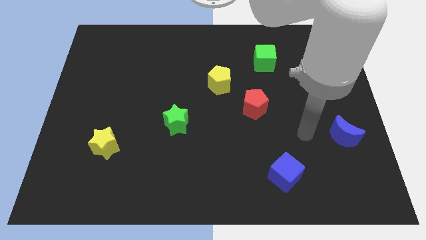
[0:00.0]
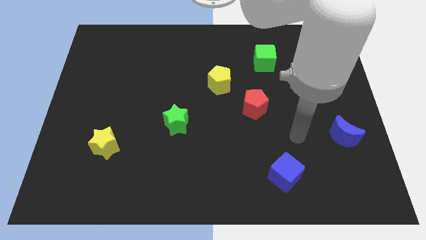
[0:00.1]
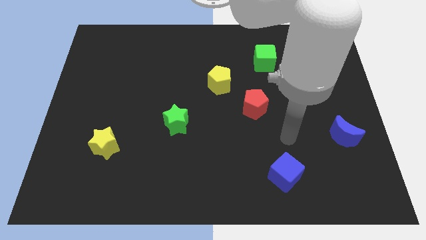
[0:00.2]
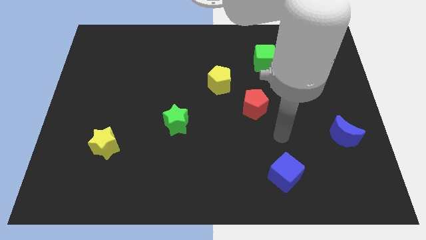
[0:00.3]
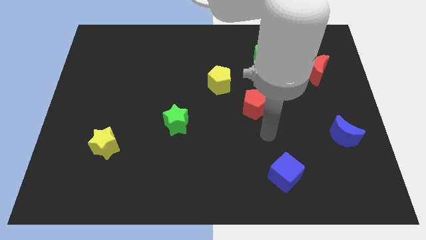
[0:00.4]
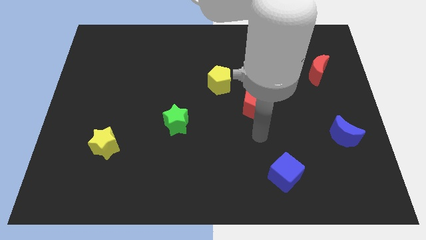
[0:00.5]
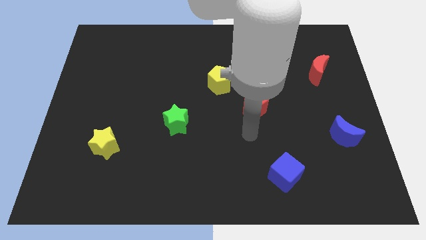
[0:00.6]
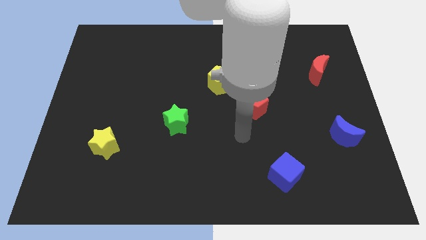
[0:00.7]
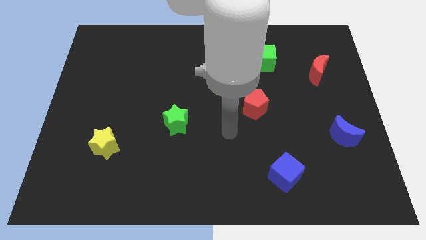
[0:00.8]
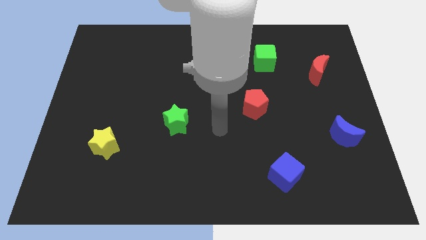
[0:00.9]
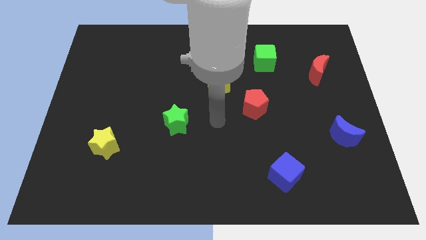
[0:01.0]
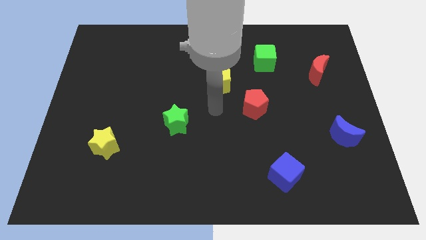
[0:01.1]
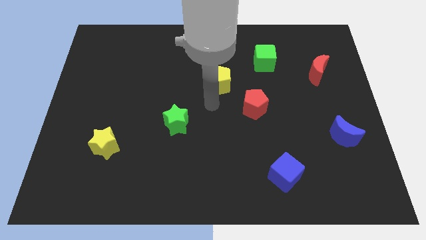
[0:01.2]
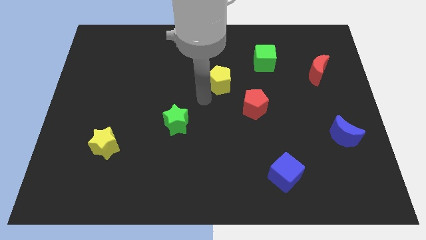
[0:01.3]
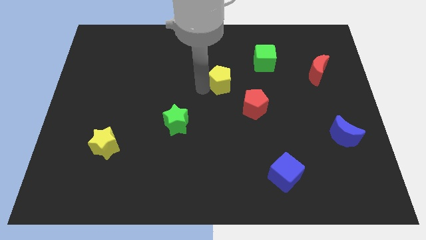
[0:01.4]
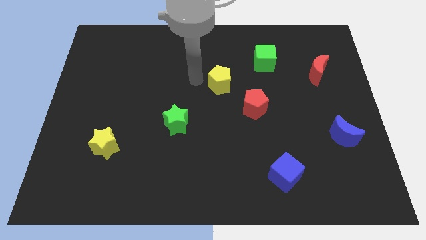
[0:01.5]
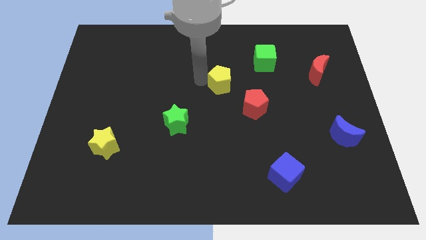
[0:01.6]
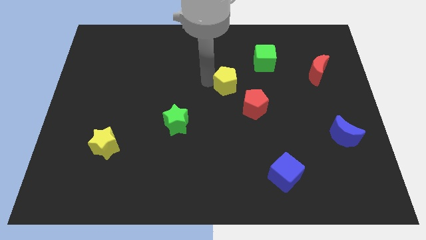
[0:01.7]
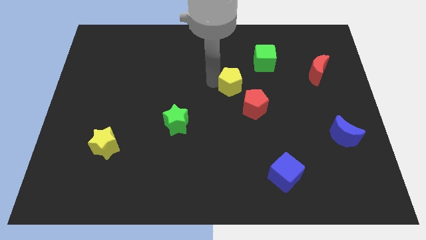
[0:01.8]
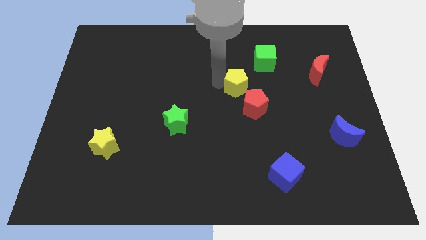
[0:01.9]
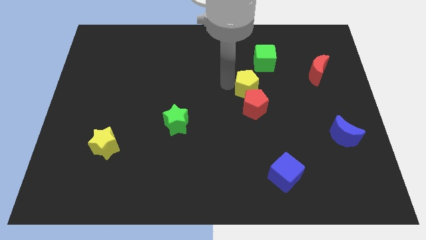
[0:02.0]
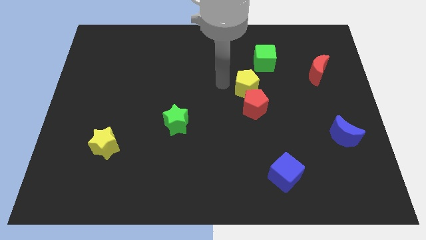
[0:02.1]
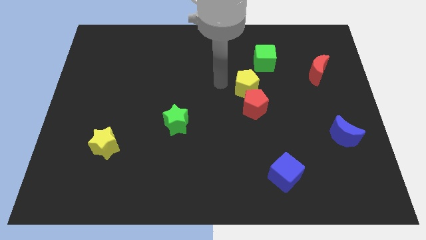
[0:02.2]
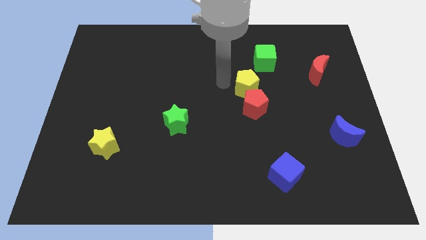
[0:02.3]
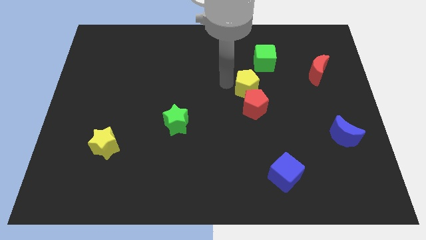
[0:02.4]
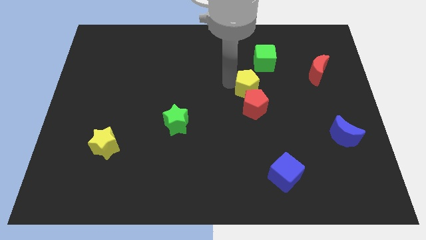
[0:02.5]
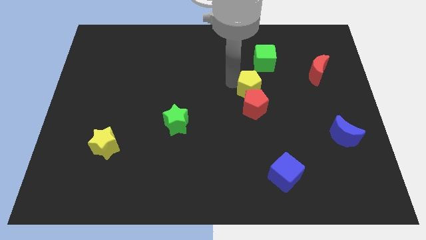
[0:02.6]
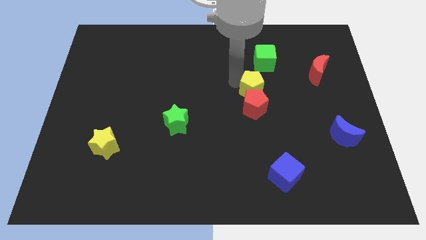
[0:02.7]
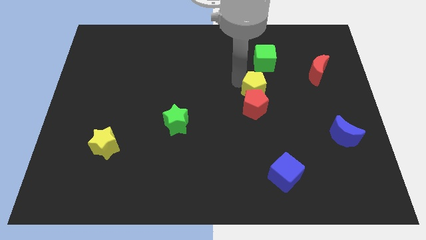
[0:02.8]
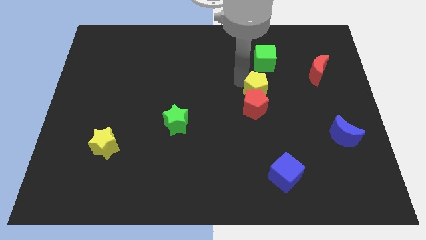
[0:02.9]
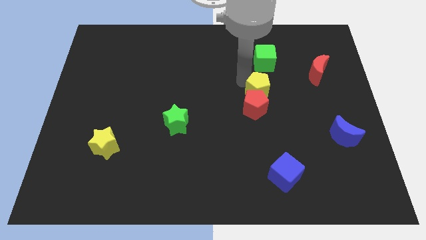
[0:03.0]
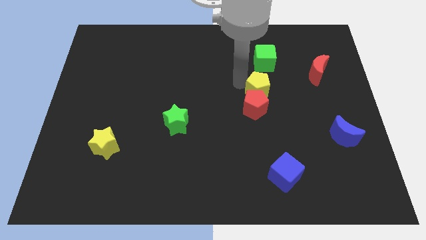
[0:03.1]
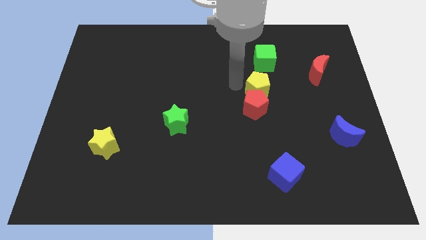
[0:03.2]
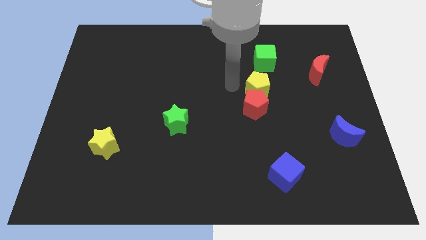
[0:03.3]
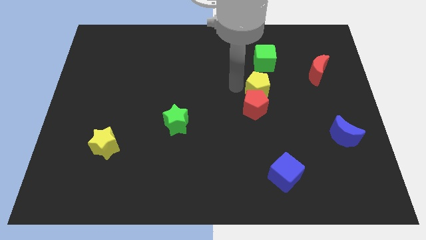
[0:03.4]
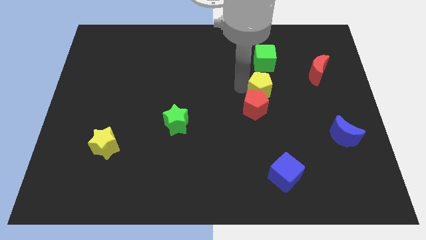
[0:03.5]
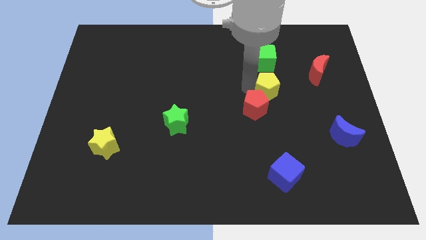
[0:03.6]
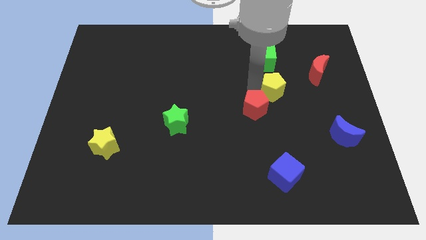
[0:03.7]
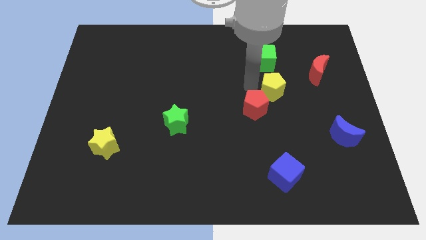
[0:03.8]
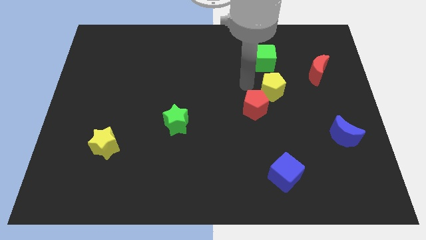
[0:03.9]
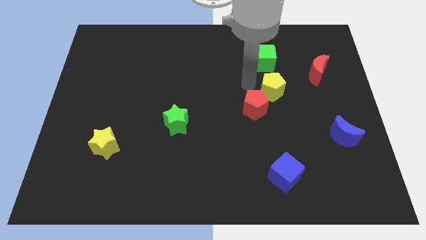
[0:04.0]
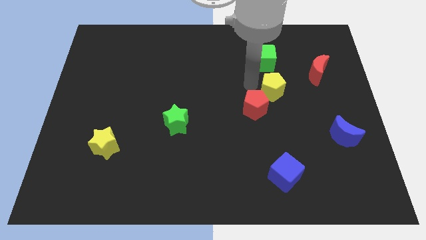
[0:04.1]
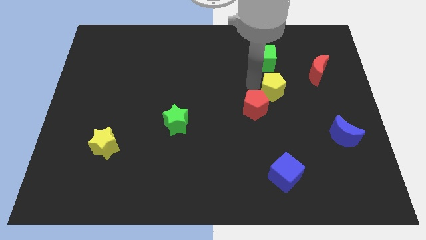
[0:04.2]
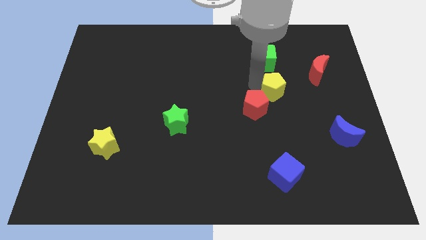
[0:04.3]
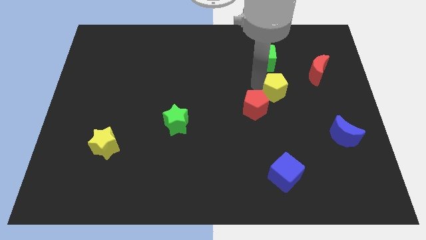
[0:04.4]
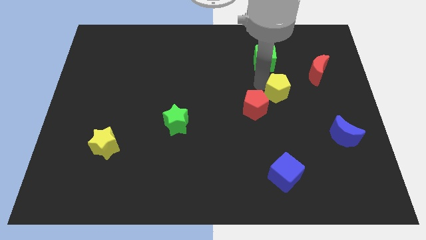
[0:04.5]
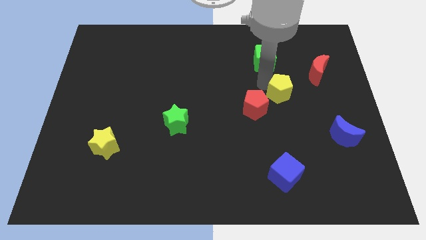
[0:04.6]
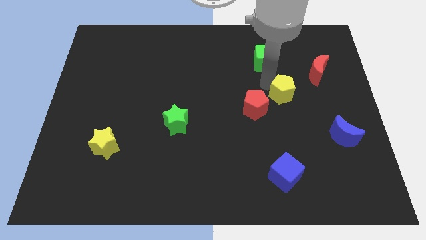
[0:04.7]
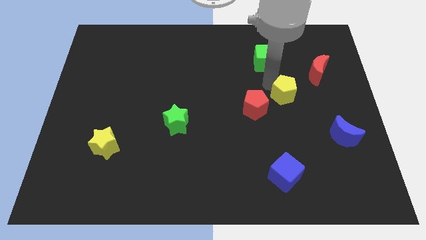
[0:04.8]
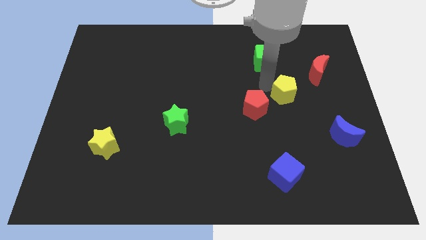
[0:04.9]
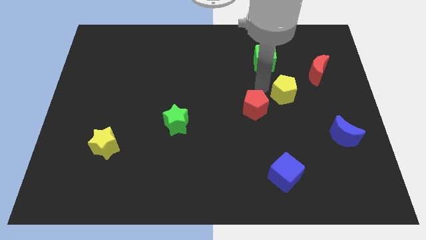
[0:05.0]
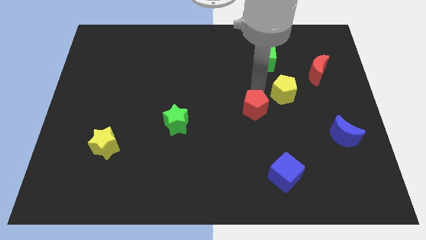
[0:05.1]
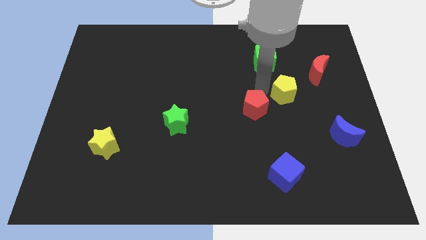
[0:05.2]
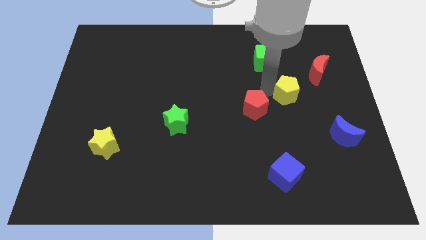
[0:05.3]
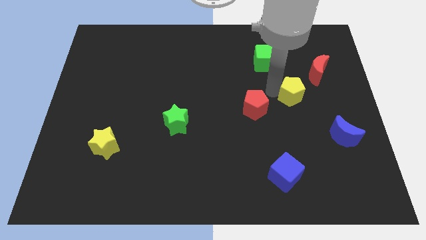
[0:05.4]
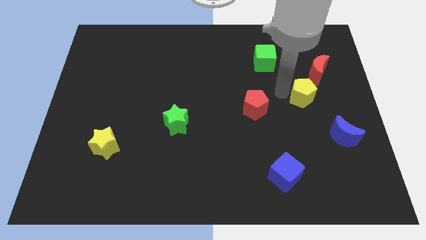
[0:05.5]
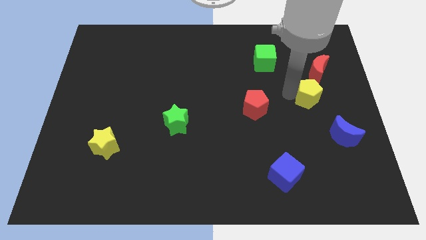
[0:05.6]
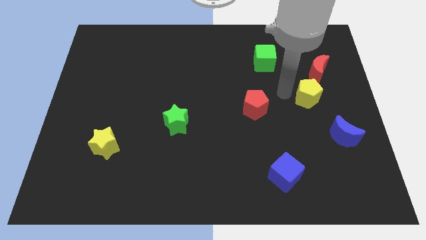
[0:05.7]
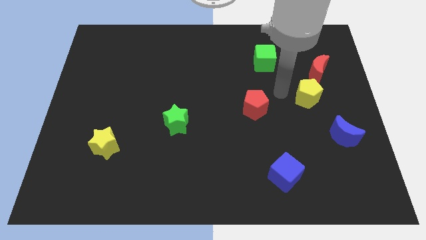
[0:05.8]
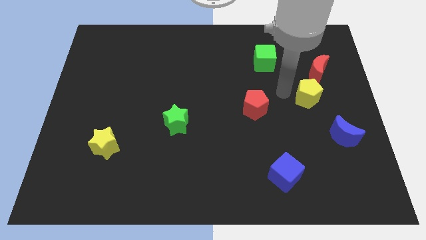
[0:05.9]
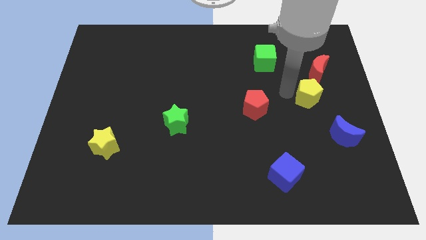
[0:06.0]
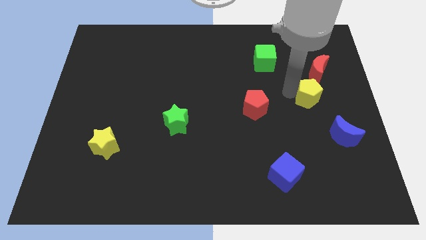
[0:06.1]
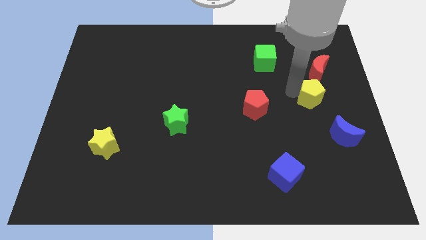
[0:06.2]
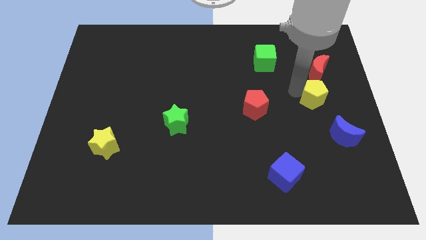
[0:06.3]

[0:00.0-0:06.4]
push the yellow pentagon to the top of the blue moon

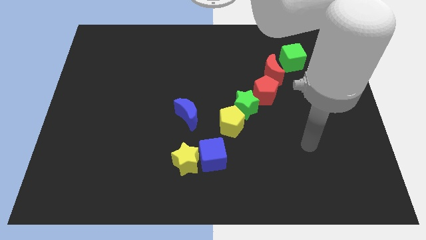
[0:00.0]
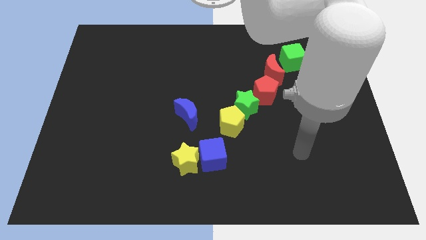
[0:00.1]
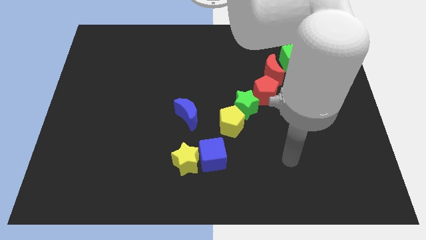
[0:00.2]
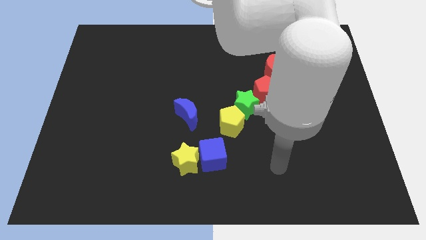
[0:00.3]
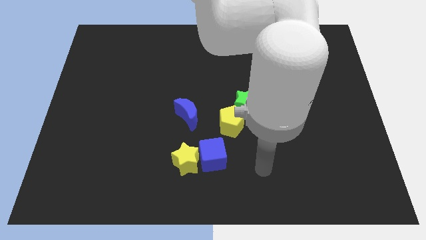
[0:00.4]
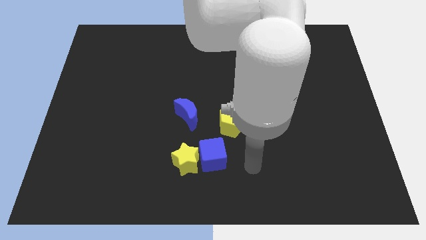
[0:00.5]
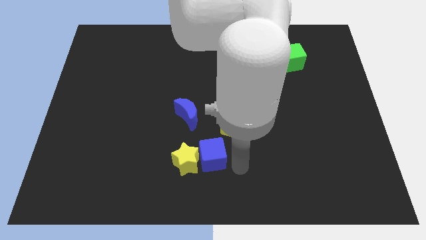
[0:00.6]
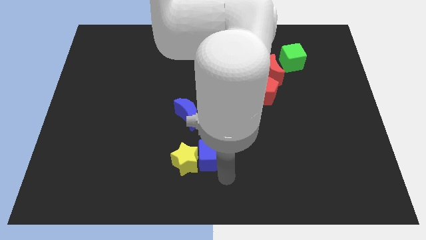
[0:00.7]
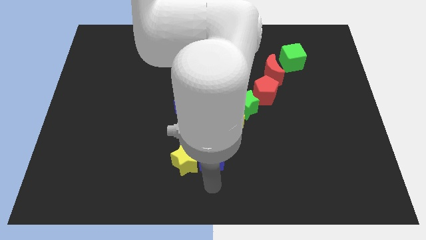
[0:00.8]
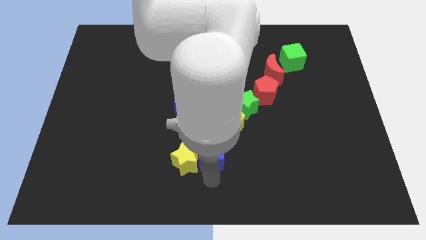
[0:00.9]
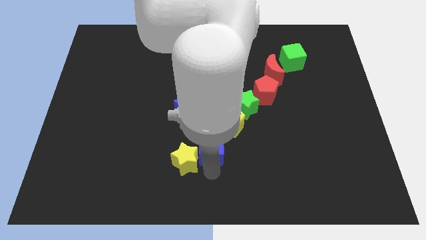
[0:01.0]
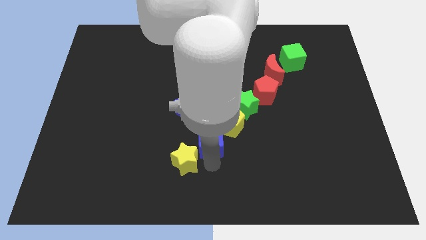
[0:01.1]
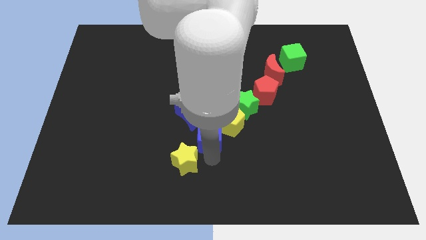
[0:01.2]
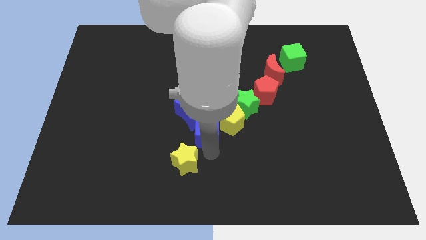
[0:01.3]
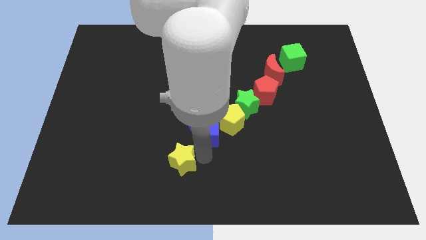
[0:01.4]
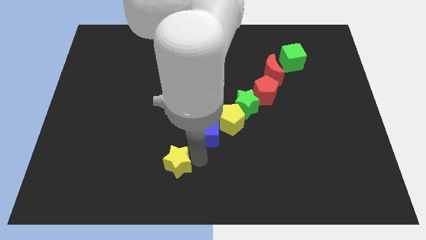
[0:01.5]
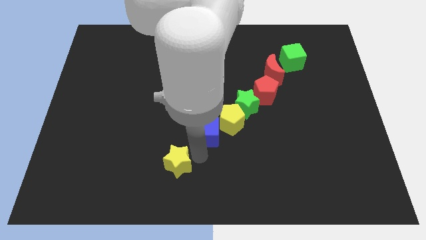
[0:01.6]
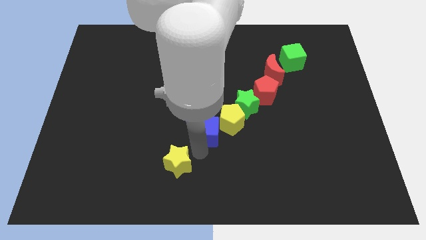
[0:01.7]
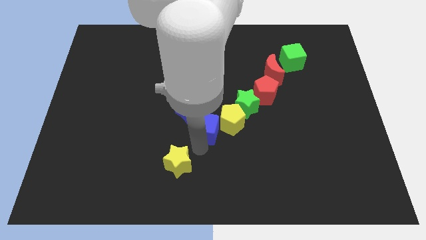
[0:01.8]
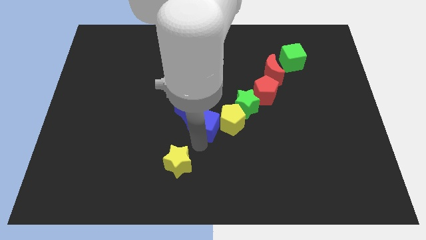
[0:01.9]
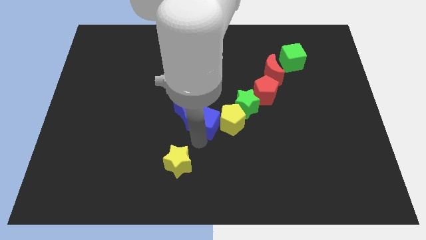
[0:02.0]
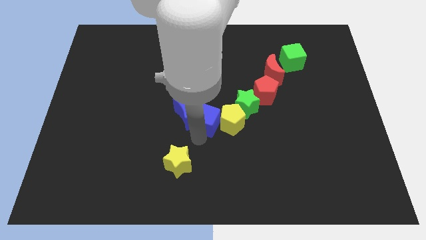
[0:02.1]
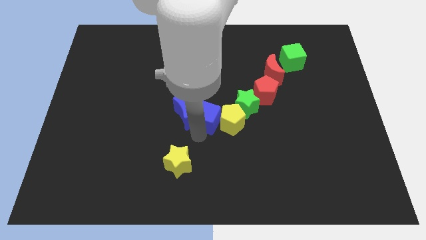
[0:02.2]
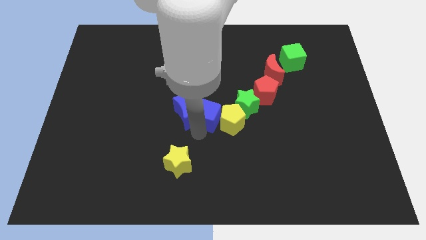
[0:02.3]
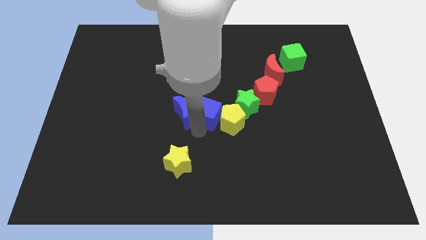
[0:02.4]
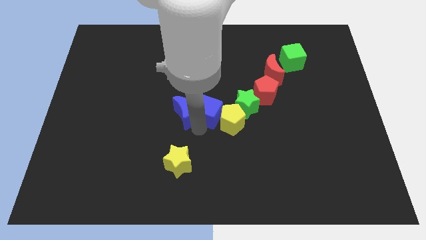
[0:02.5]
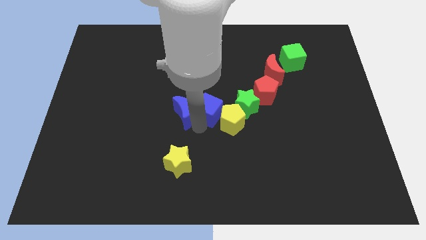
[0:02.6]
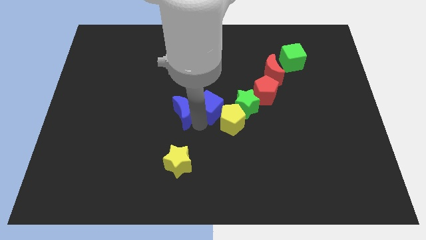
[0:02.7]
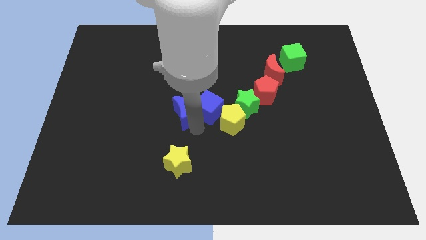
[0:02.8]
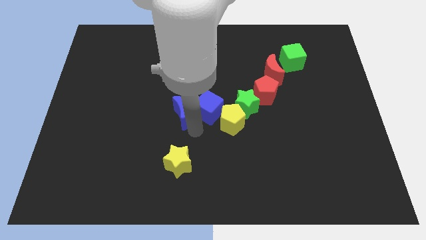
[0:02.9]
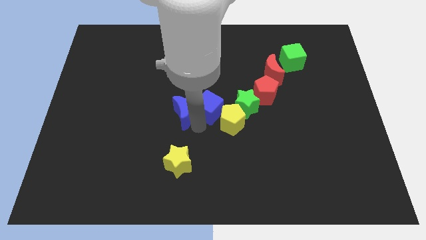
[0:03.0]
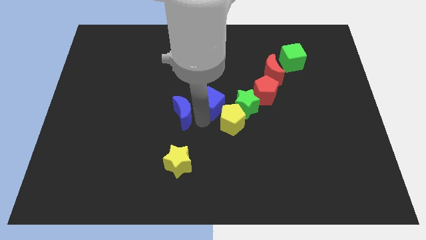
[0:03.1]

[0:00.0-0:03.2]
slide the blue cube to the left of the red pentagon
